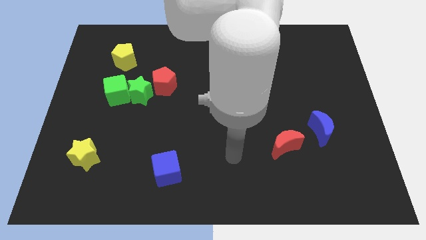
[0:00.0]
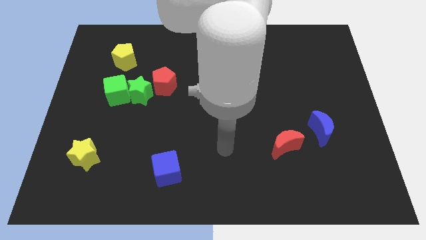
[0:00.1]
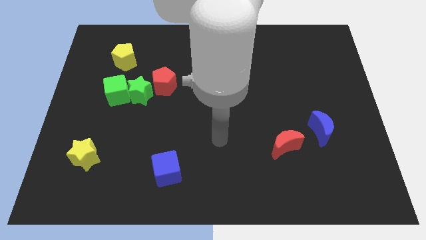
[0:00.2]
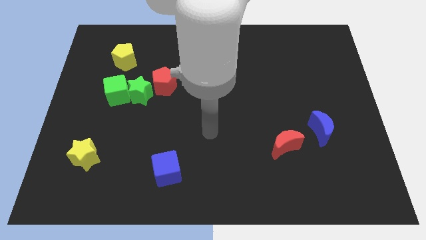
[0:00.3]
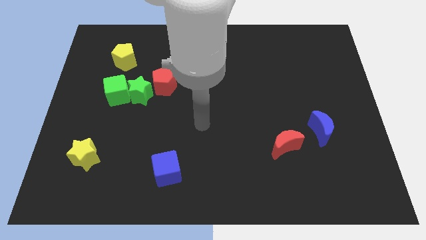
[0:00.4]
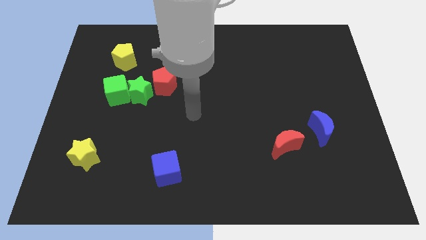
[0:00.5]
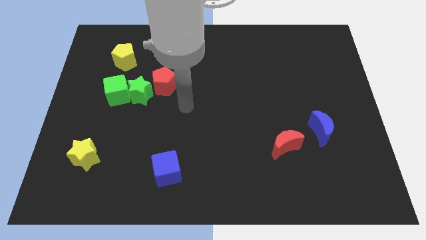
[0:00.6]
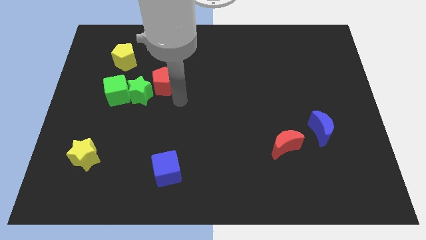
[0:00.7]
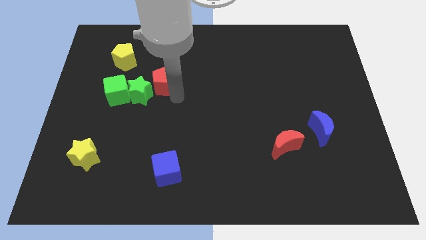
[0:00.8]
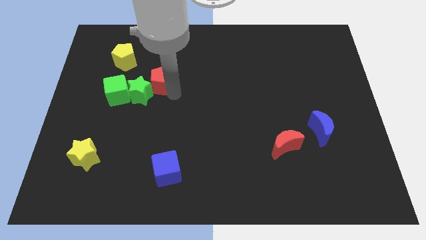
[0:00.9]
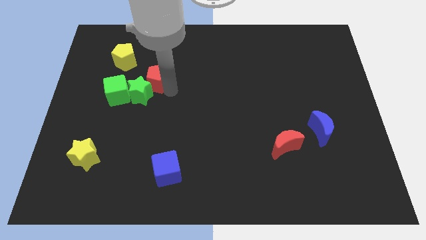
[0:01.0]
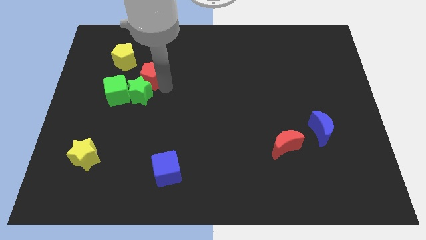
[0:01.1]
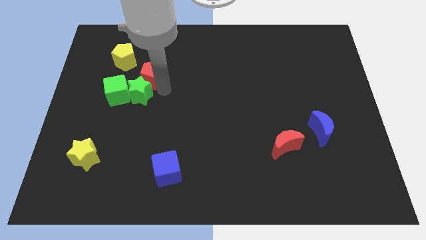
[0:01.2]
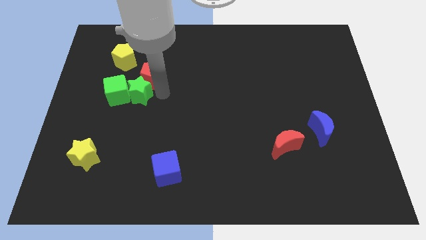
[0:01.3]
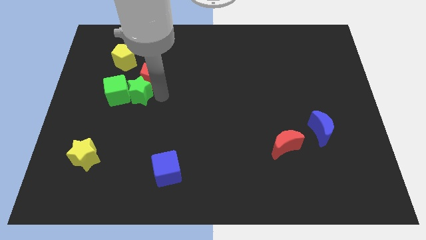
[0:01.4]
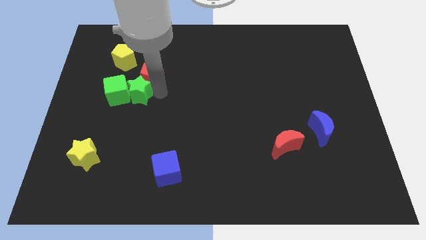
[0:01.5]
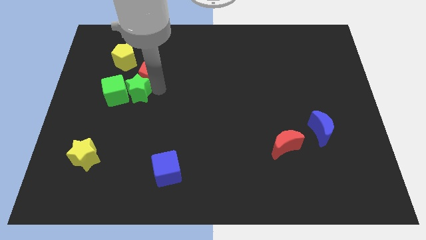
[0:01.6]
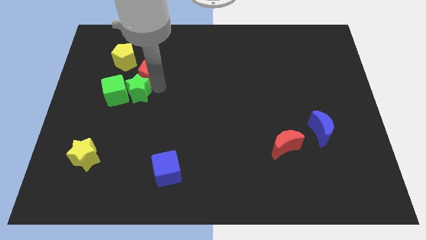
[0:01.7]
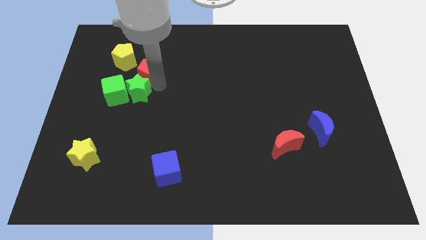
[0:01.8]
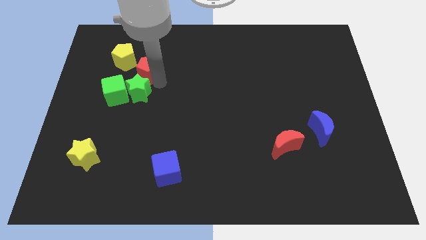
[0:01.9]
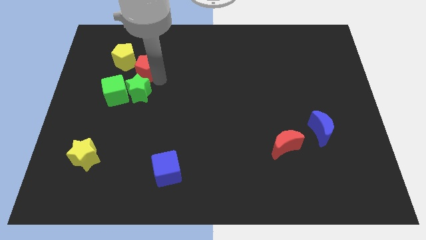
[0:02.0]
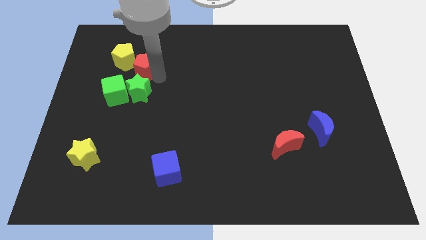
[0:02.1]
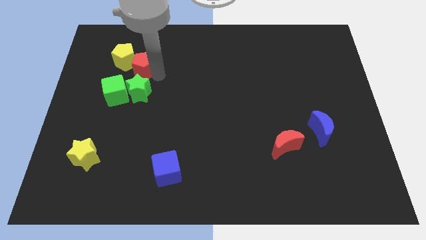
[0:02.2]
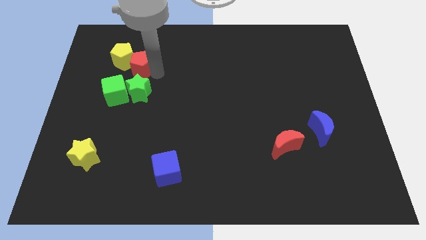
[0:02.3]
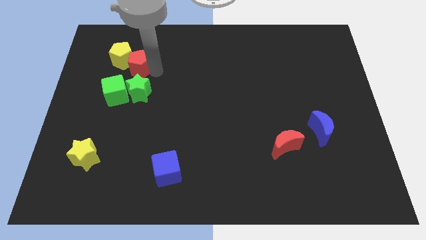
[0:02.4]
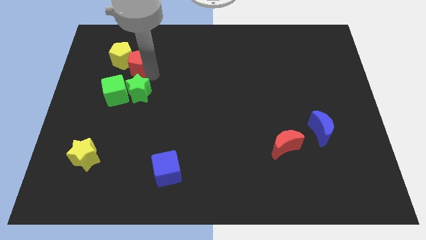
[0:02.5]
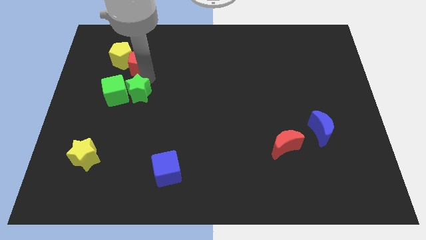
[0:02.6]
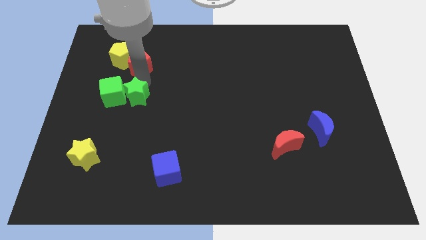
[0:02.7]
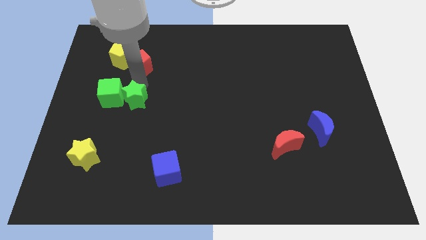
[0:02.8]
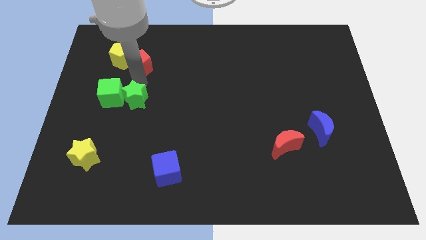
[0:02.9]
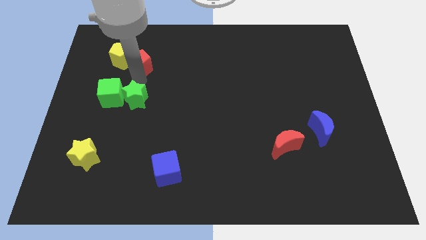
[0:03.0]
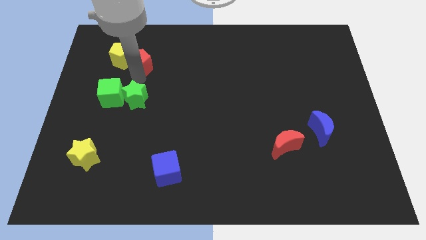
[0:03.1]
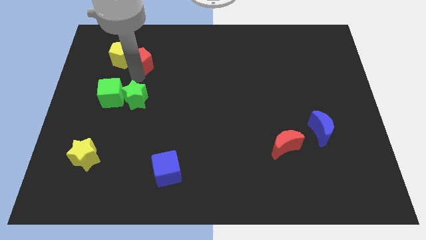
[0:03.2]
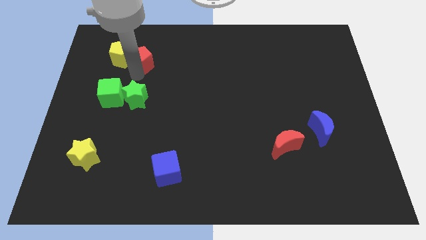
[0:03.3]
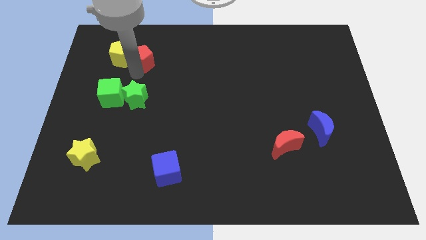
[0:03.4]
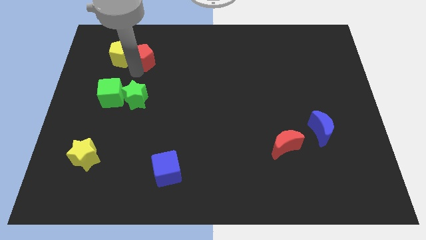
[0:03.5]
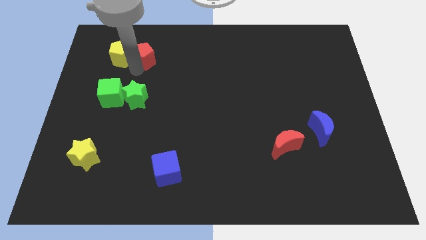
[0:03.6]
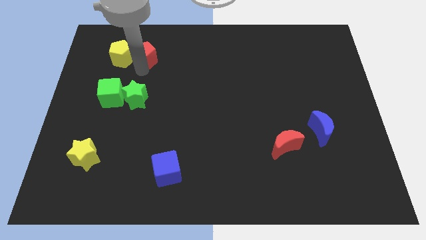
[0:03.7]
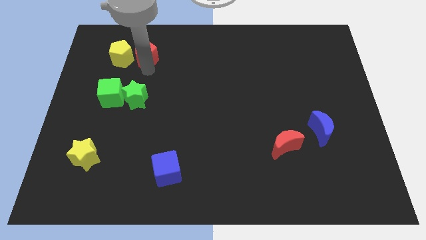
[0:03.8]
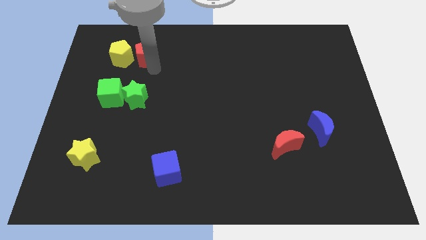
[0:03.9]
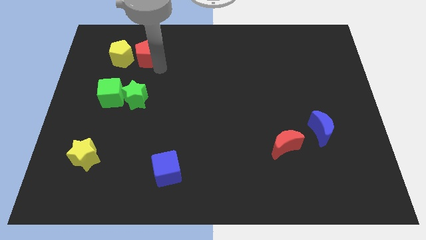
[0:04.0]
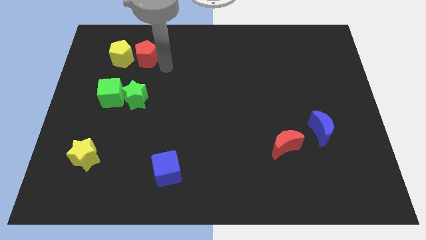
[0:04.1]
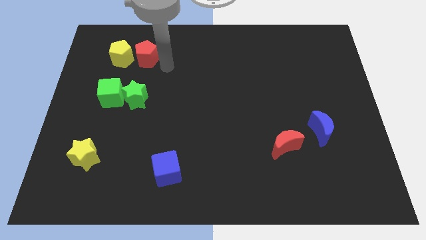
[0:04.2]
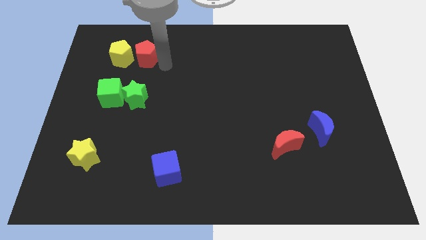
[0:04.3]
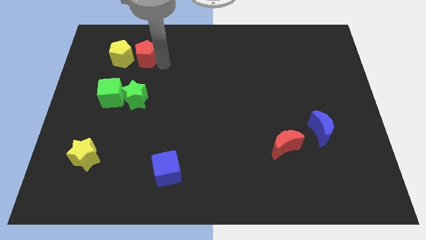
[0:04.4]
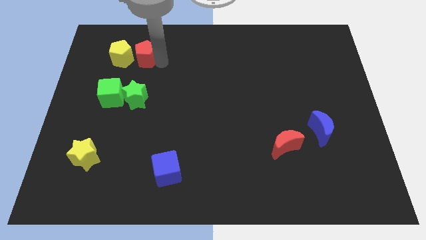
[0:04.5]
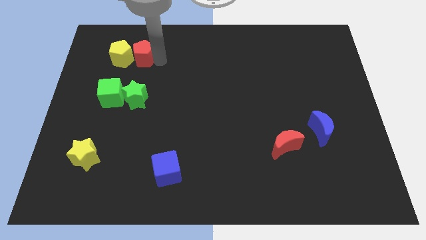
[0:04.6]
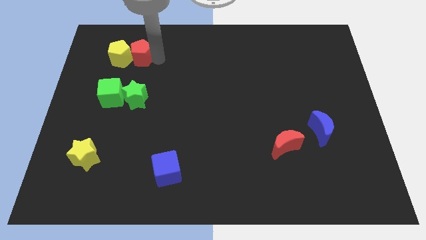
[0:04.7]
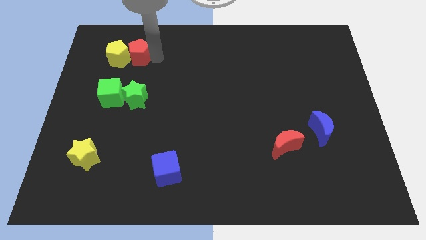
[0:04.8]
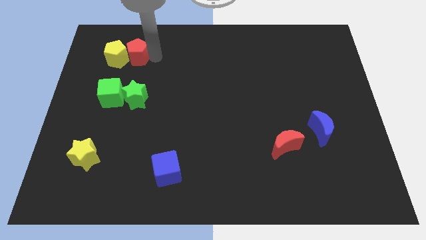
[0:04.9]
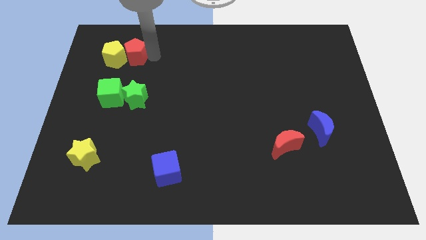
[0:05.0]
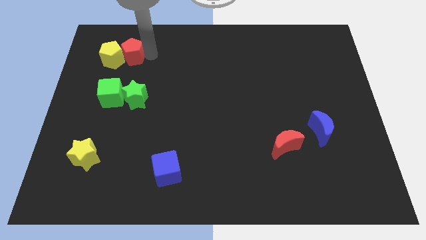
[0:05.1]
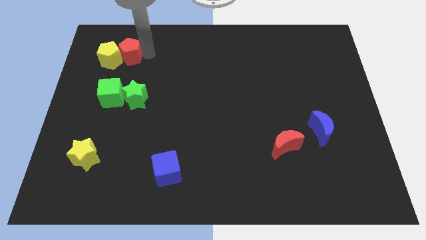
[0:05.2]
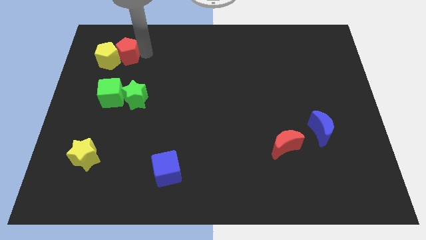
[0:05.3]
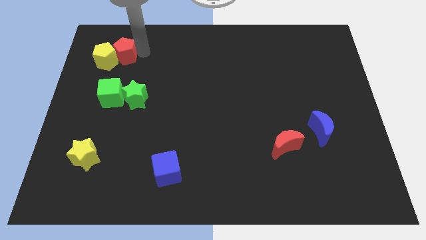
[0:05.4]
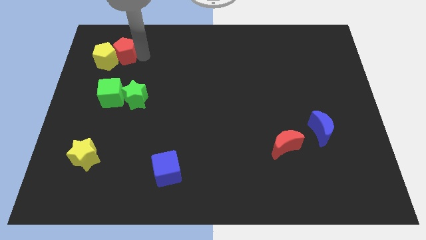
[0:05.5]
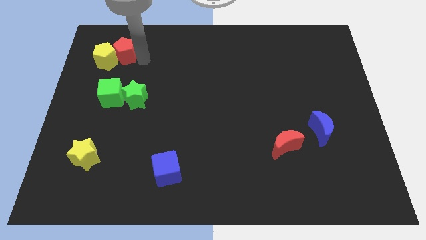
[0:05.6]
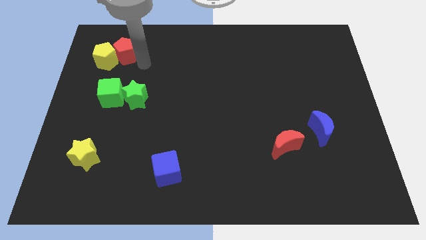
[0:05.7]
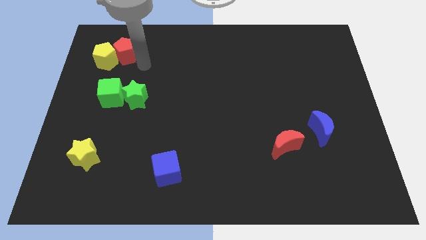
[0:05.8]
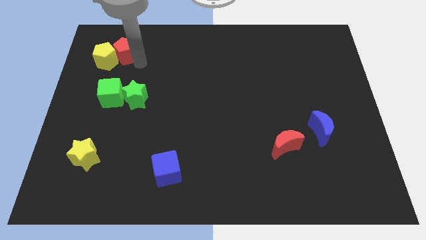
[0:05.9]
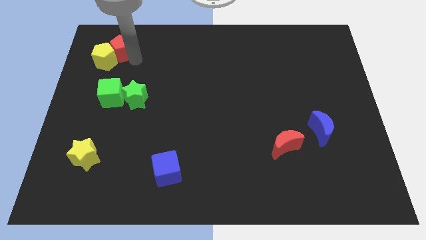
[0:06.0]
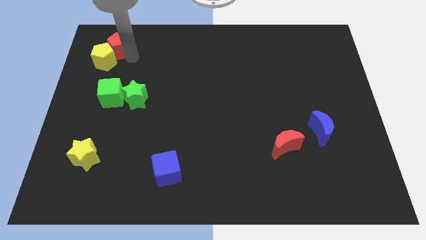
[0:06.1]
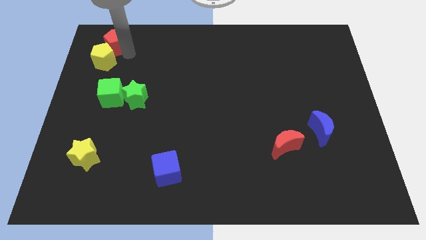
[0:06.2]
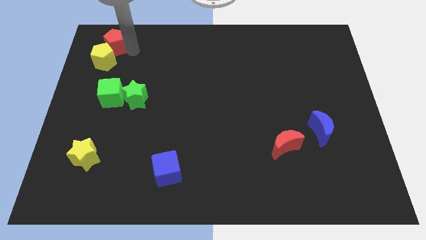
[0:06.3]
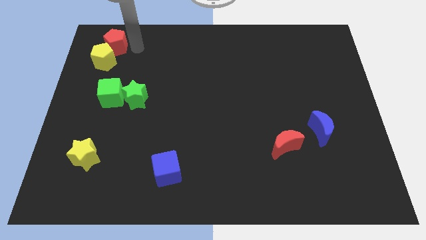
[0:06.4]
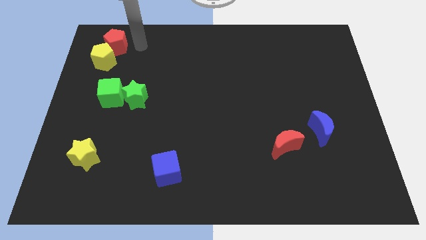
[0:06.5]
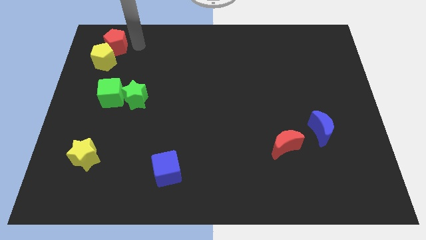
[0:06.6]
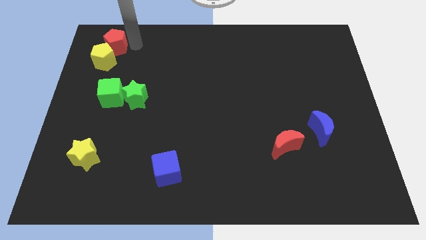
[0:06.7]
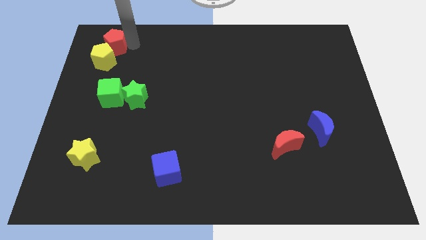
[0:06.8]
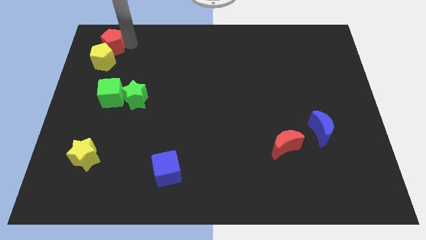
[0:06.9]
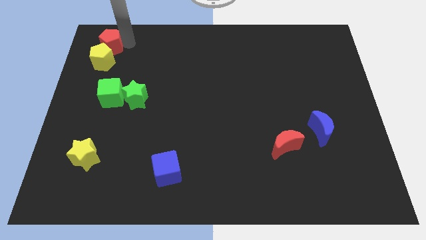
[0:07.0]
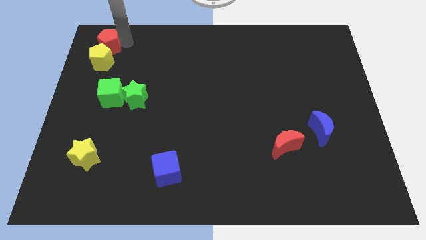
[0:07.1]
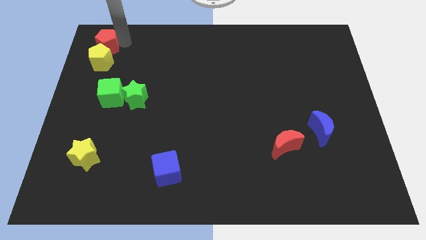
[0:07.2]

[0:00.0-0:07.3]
slide the red pentagon to the top left
